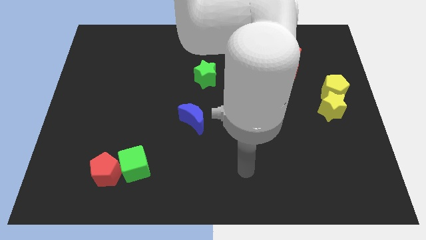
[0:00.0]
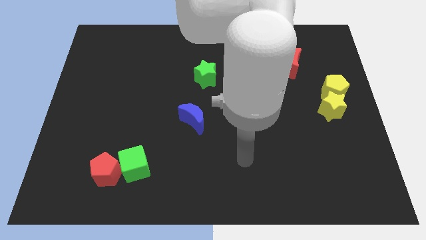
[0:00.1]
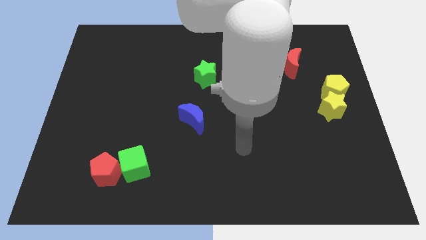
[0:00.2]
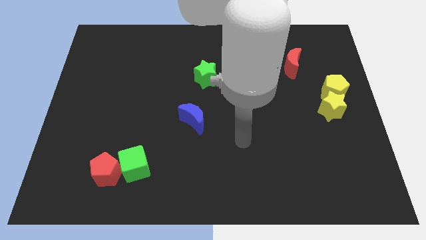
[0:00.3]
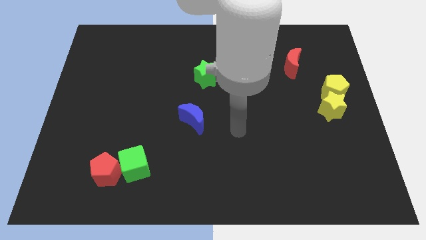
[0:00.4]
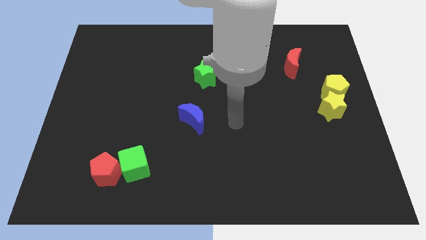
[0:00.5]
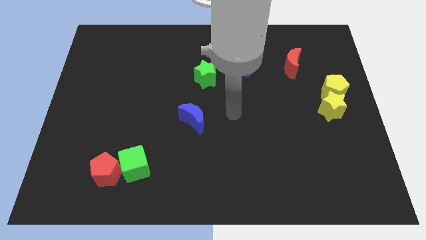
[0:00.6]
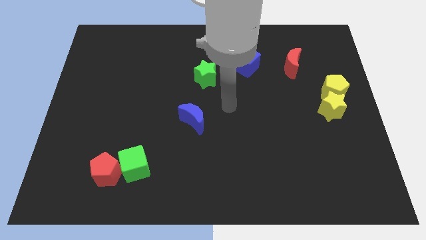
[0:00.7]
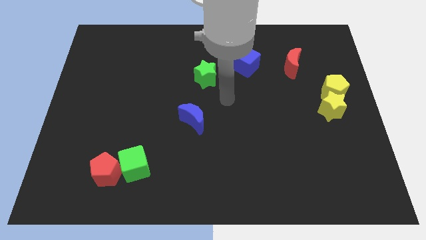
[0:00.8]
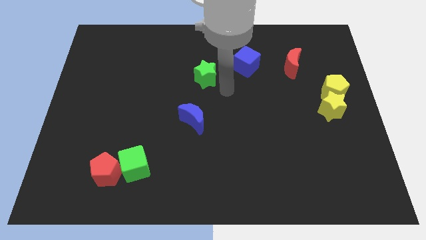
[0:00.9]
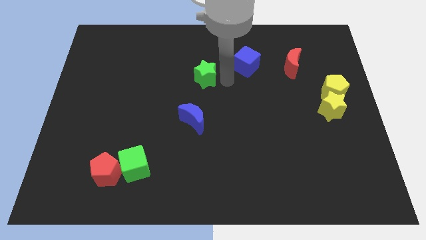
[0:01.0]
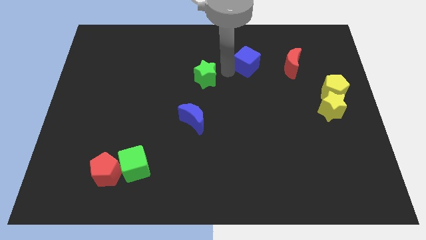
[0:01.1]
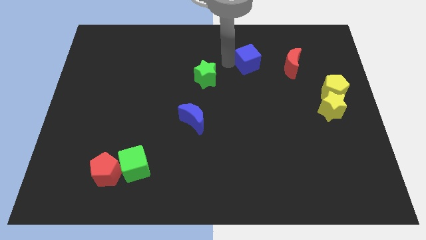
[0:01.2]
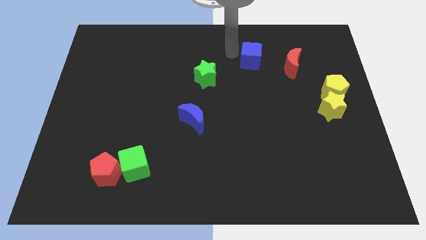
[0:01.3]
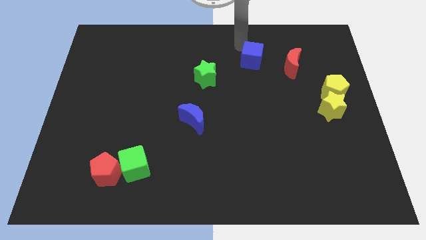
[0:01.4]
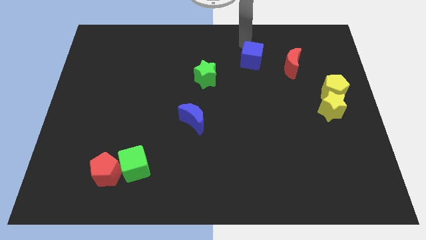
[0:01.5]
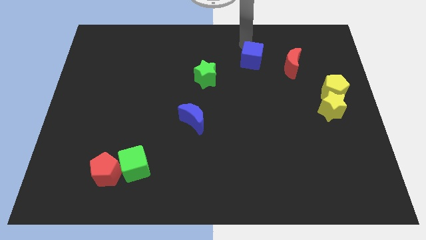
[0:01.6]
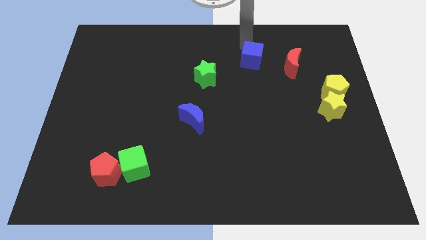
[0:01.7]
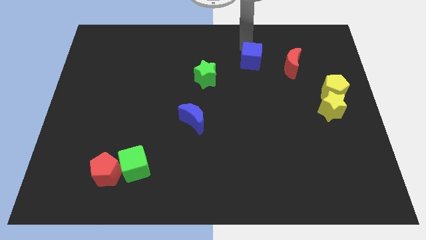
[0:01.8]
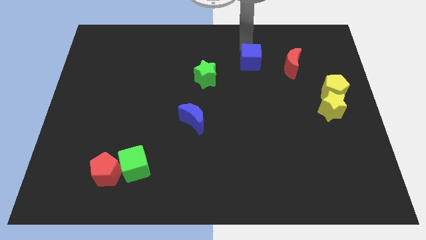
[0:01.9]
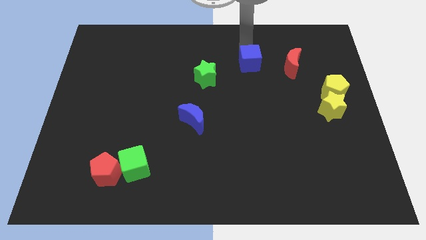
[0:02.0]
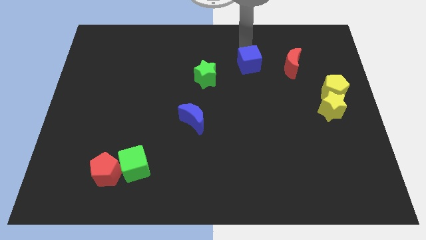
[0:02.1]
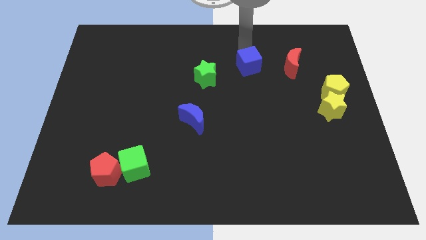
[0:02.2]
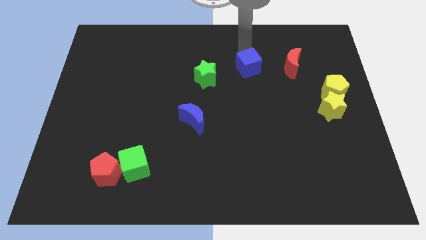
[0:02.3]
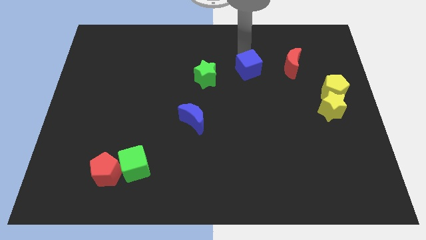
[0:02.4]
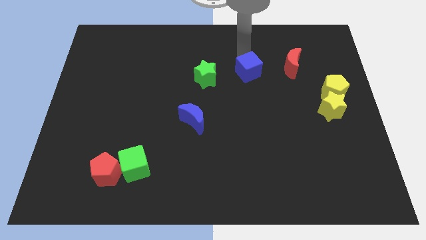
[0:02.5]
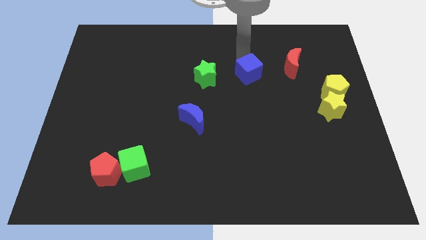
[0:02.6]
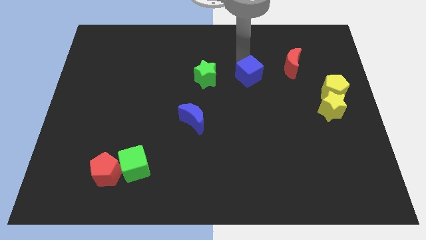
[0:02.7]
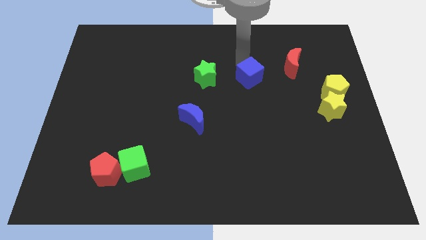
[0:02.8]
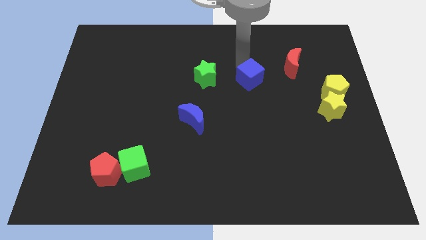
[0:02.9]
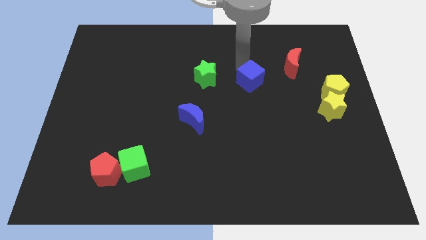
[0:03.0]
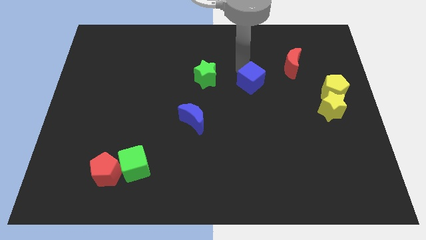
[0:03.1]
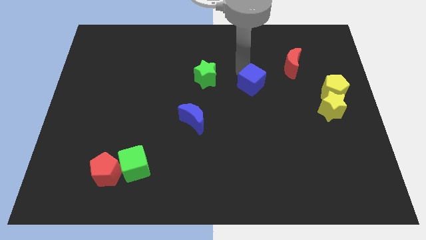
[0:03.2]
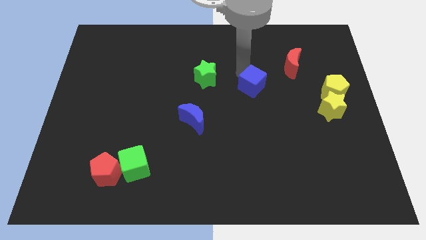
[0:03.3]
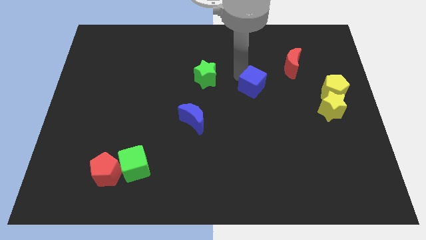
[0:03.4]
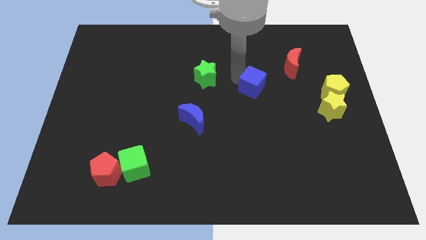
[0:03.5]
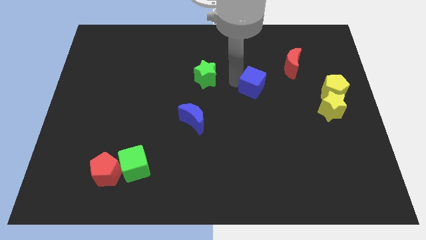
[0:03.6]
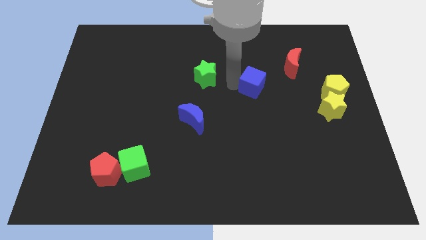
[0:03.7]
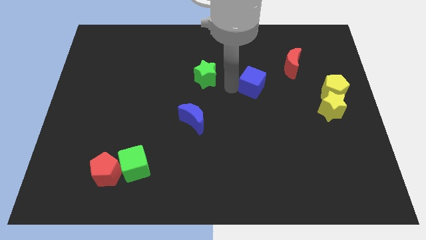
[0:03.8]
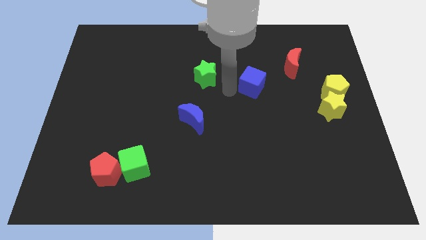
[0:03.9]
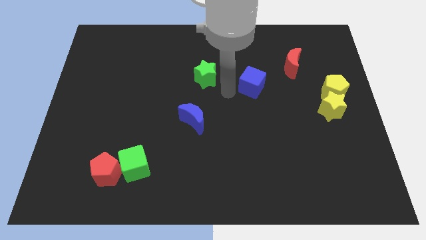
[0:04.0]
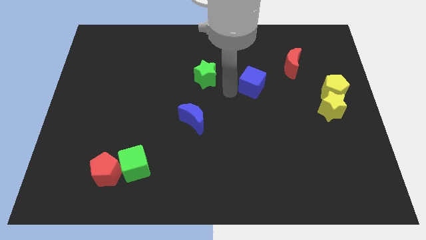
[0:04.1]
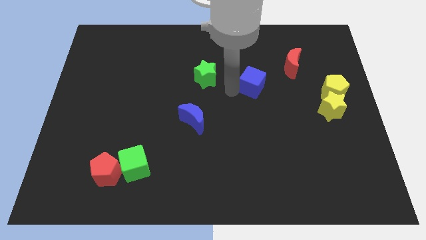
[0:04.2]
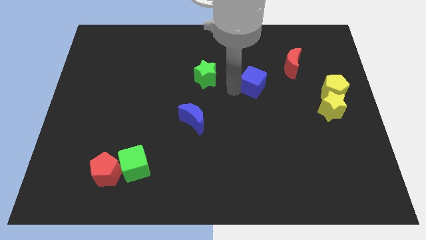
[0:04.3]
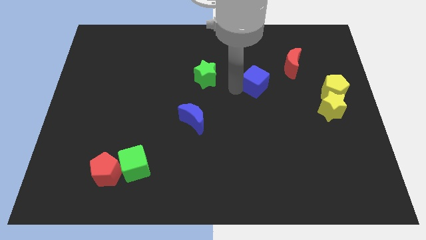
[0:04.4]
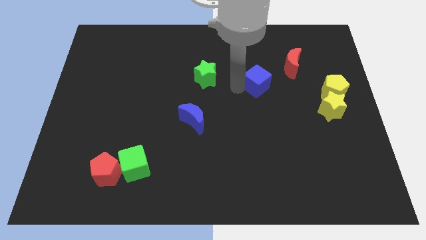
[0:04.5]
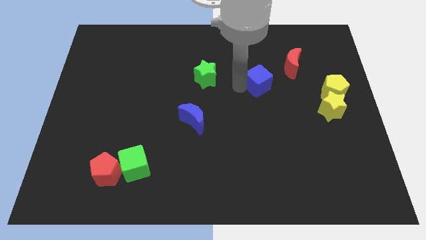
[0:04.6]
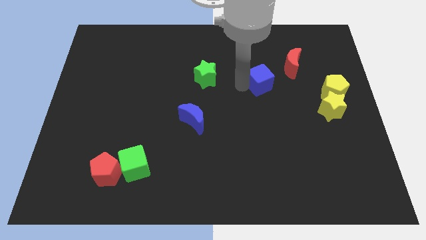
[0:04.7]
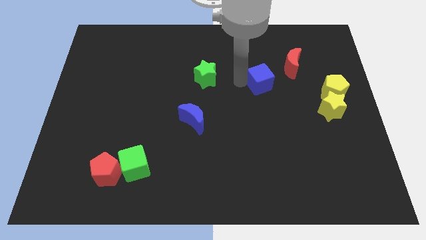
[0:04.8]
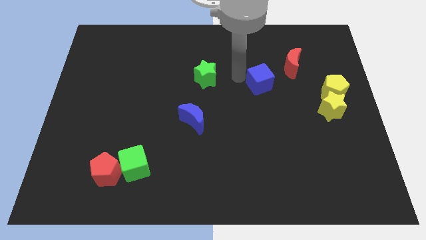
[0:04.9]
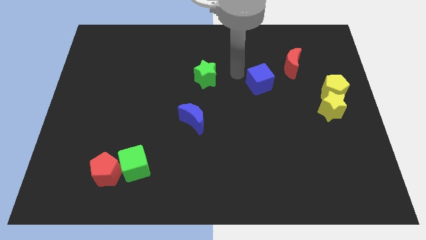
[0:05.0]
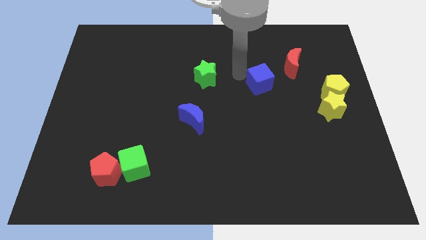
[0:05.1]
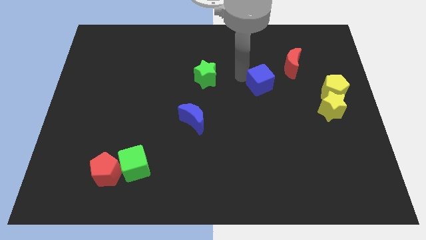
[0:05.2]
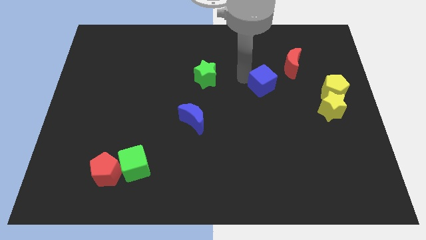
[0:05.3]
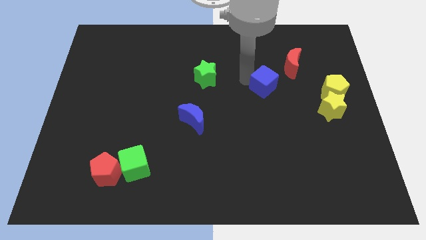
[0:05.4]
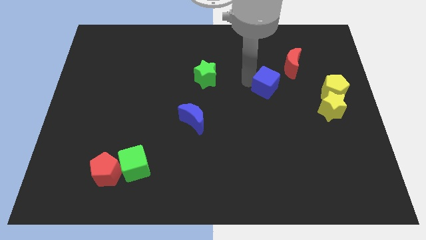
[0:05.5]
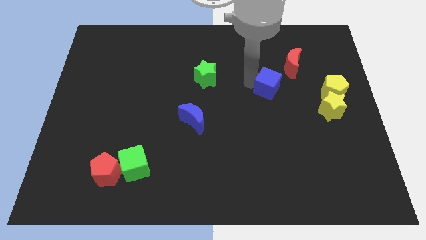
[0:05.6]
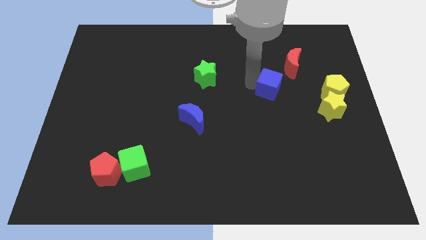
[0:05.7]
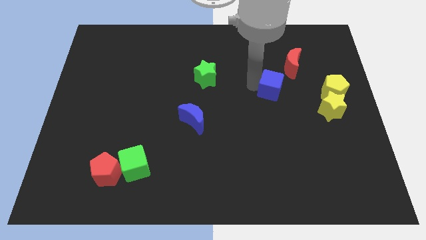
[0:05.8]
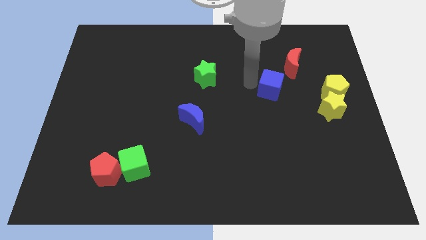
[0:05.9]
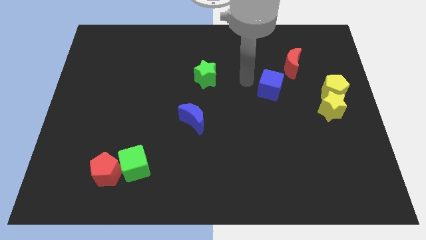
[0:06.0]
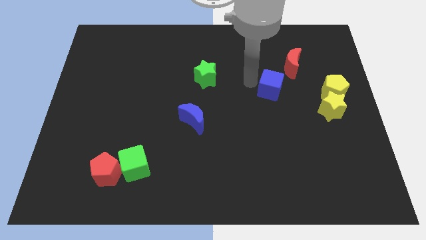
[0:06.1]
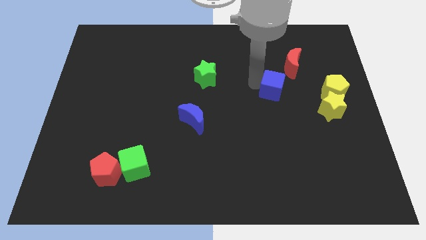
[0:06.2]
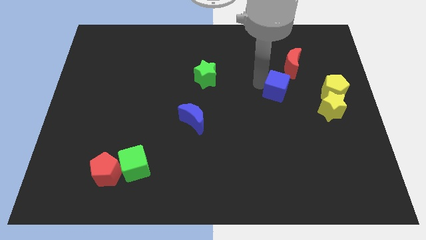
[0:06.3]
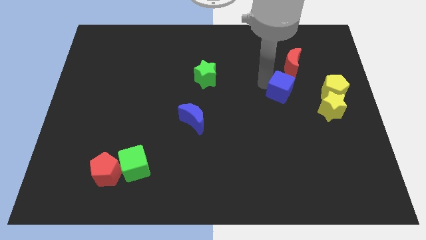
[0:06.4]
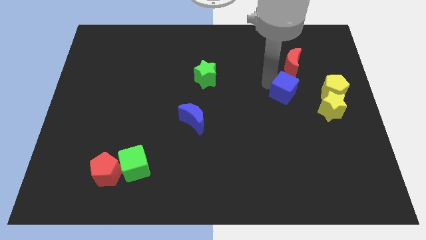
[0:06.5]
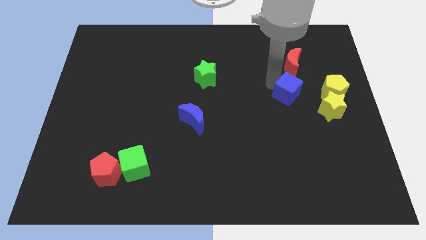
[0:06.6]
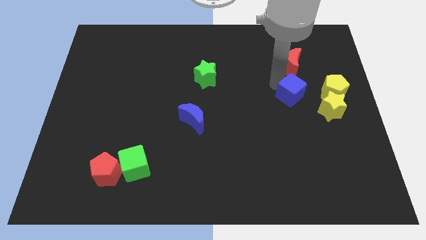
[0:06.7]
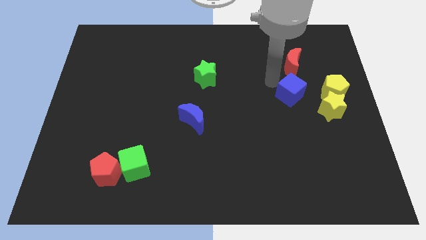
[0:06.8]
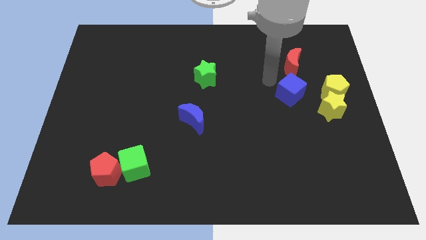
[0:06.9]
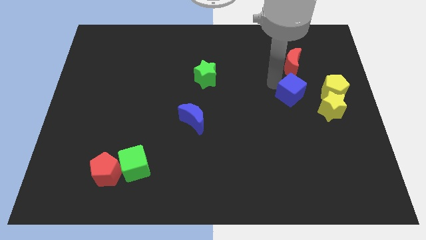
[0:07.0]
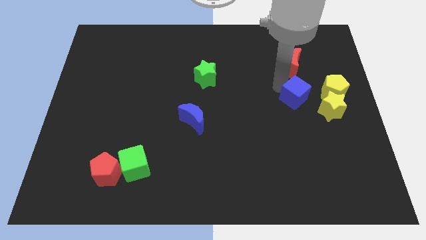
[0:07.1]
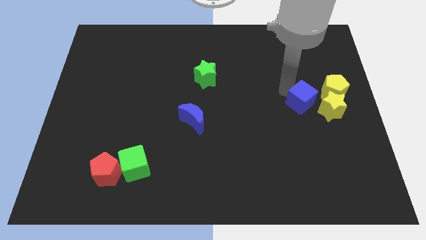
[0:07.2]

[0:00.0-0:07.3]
move the blue cube diagonally down and to the left of the yellow pentagon

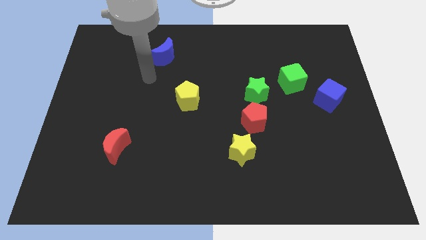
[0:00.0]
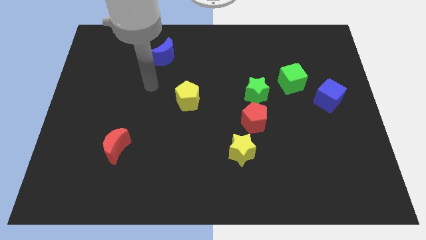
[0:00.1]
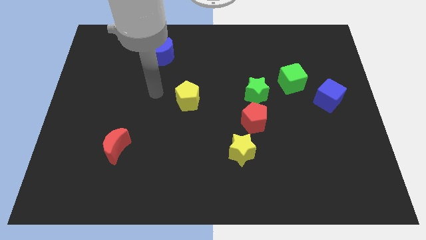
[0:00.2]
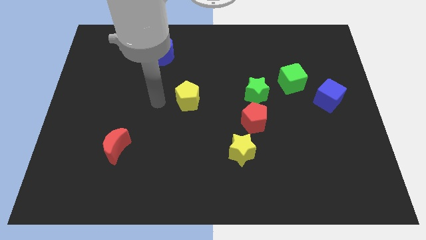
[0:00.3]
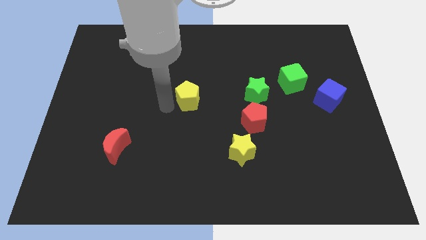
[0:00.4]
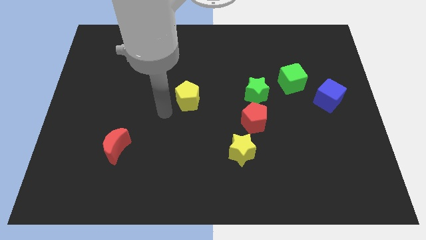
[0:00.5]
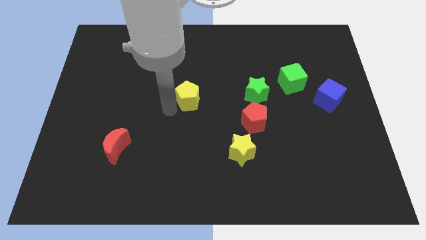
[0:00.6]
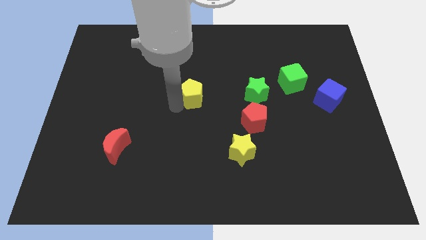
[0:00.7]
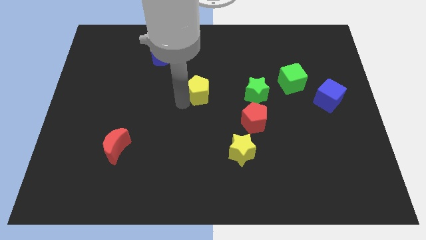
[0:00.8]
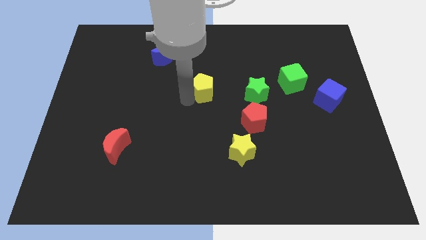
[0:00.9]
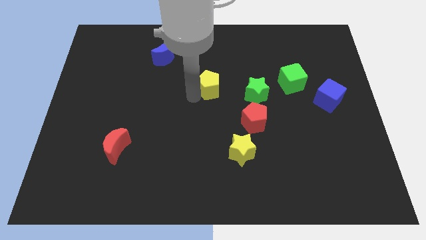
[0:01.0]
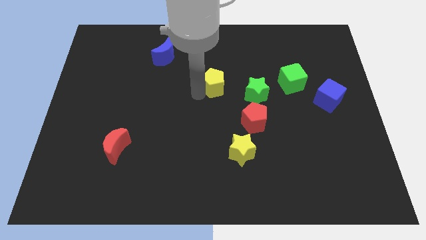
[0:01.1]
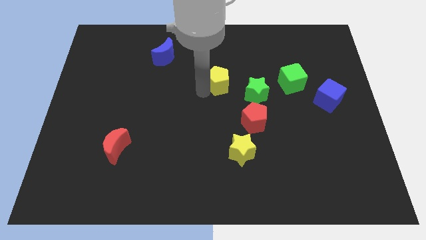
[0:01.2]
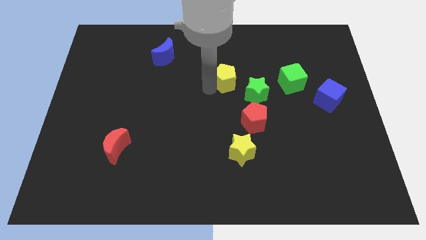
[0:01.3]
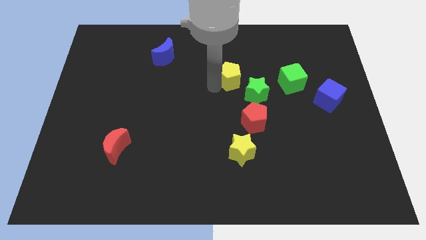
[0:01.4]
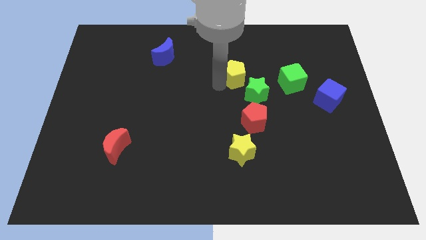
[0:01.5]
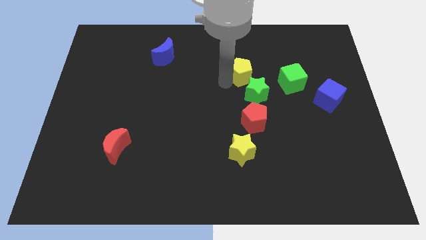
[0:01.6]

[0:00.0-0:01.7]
put the yellow pentagon above the green star
